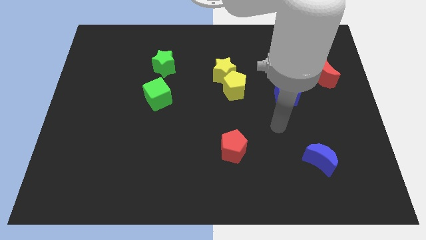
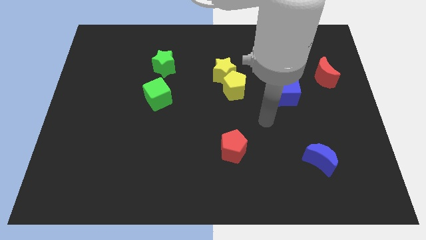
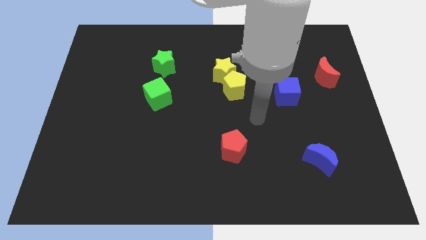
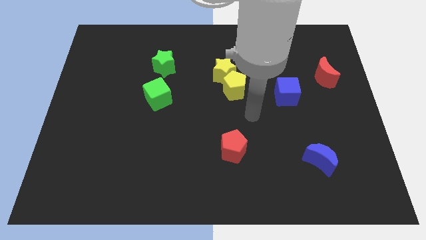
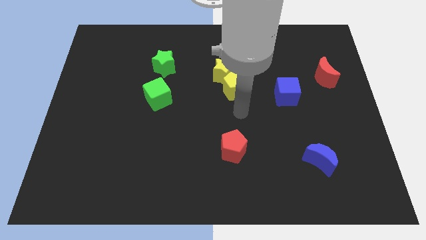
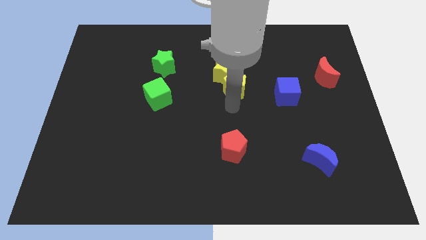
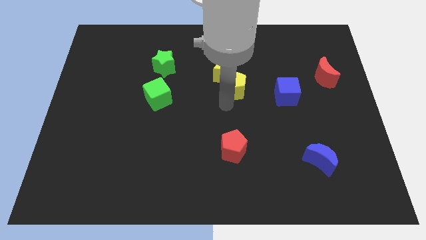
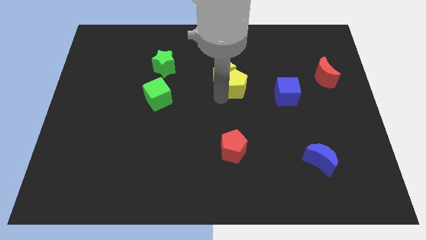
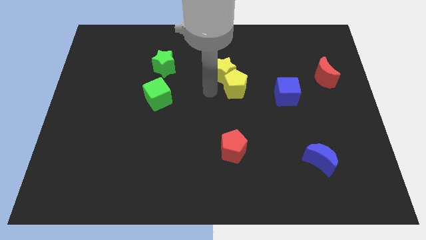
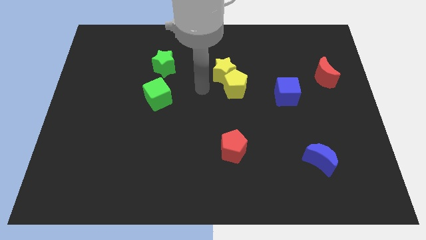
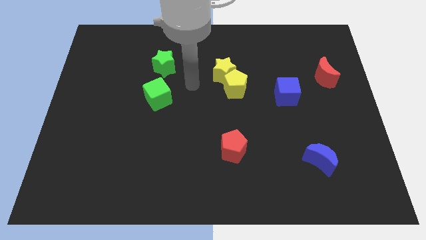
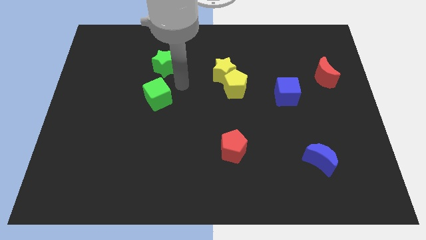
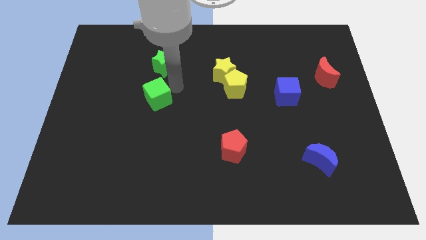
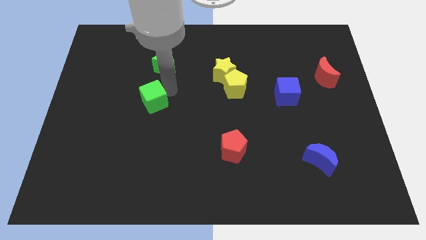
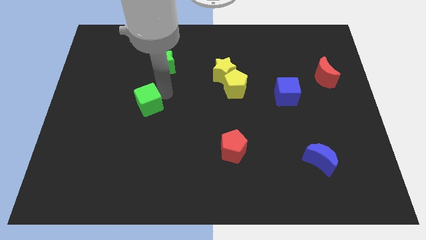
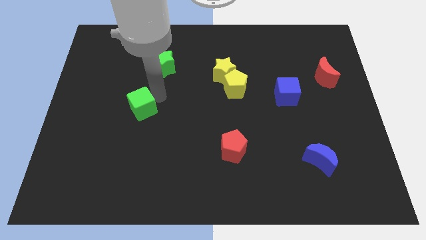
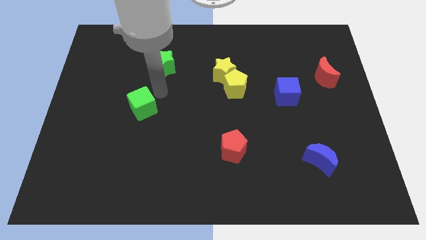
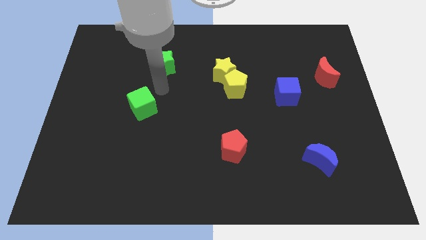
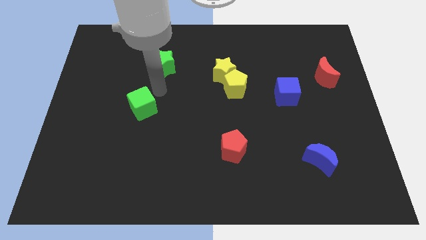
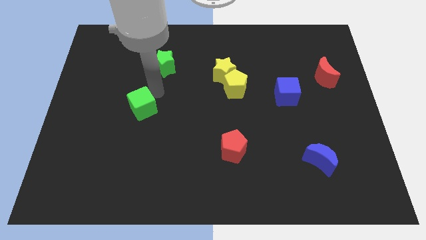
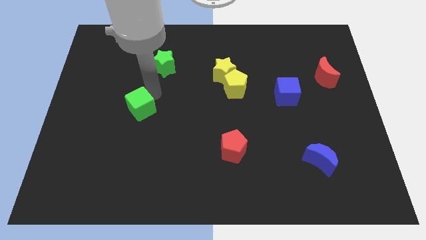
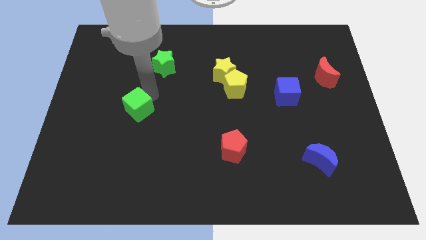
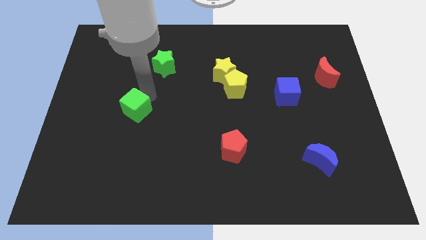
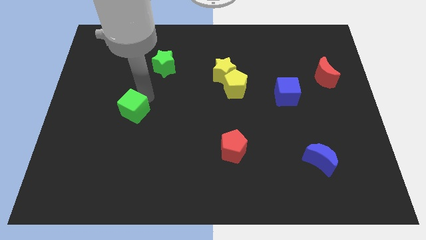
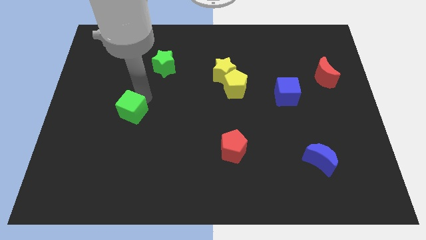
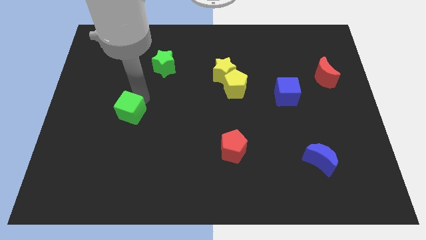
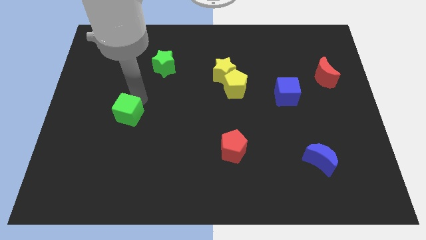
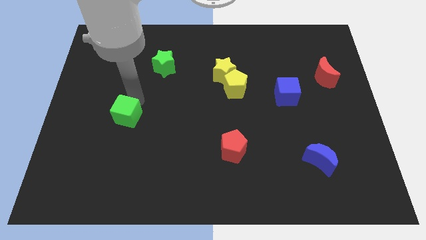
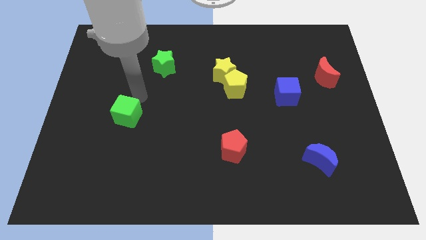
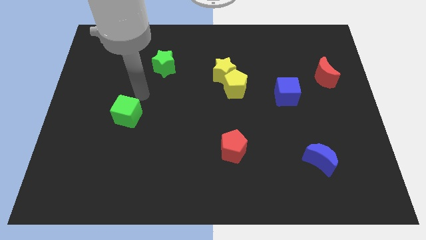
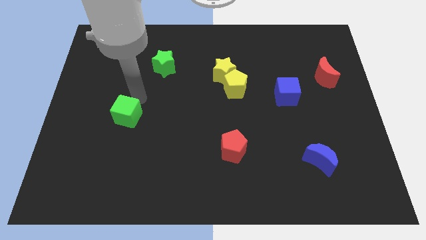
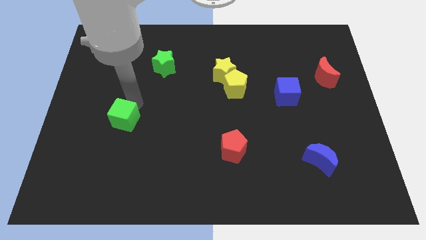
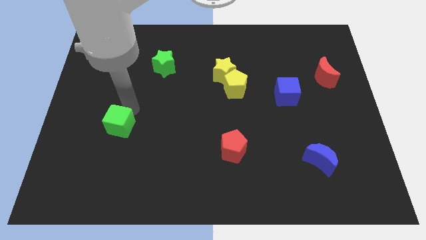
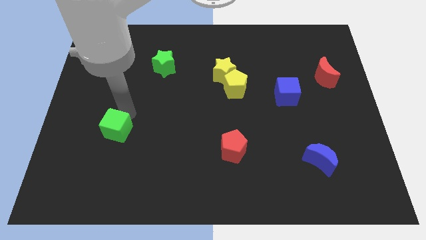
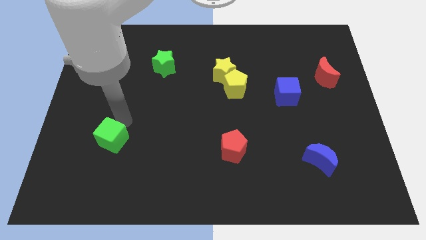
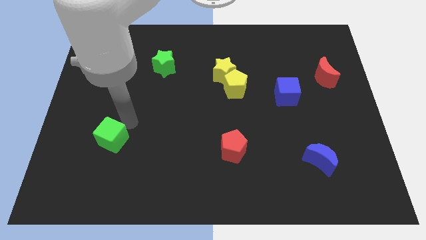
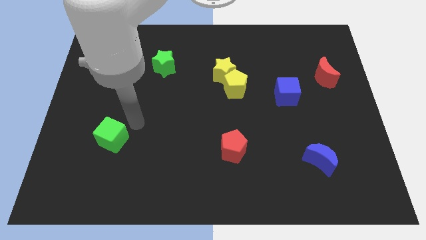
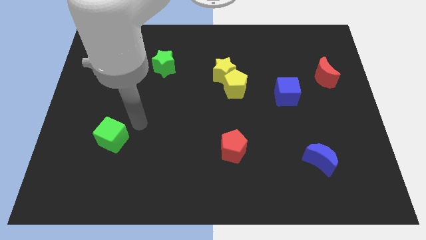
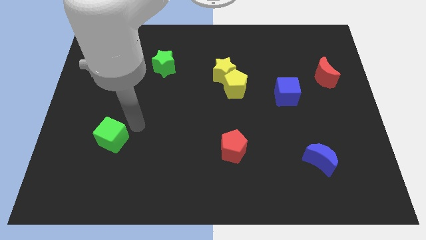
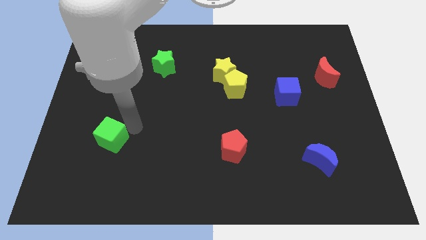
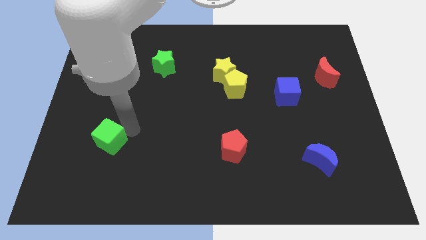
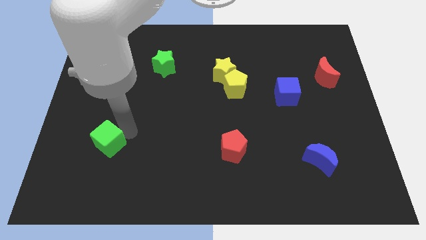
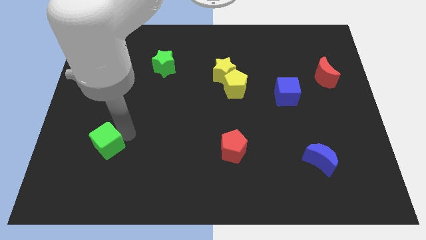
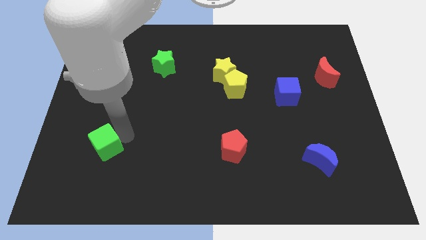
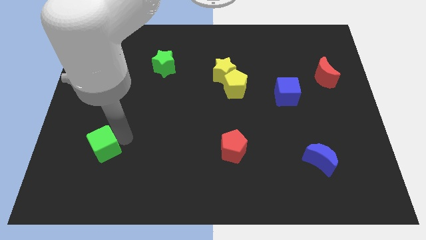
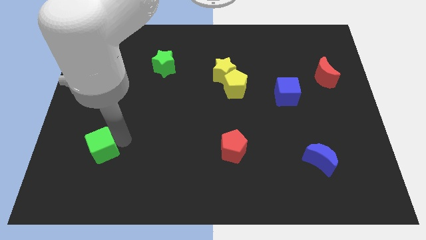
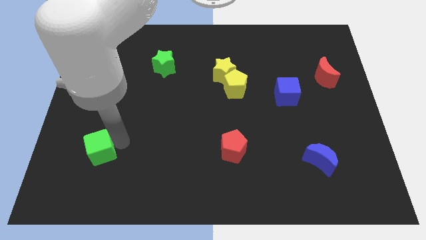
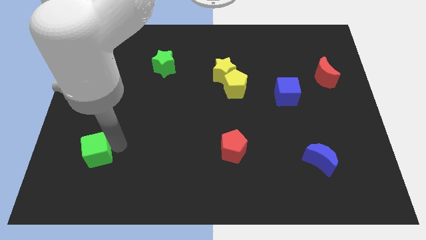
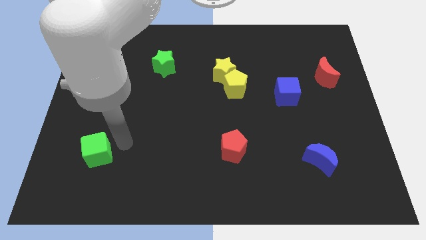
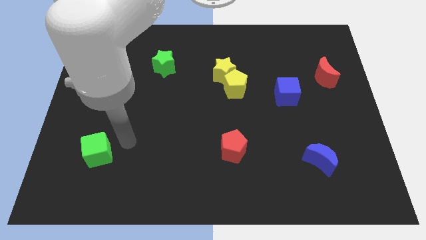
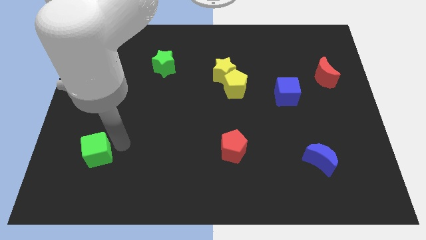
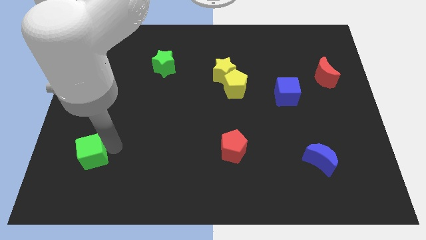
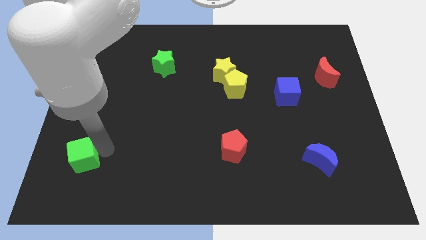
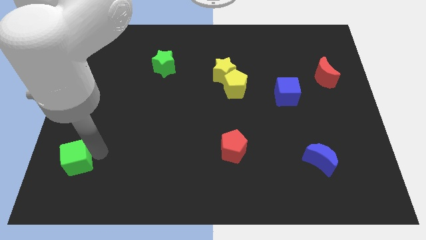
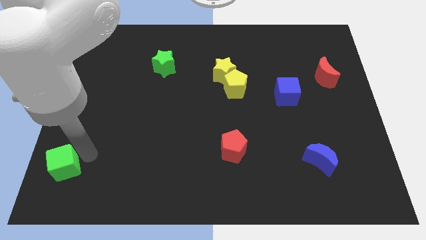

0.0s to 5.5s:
push the green cube to the lower left corner

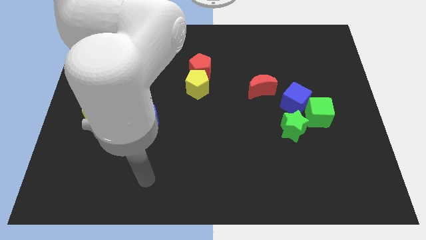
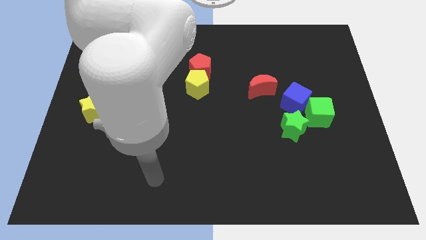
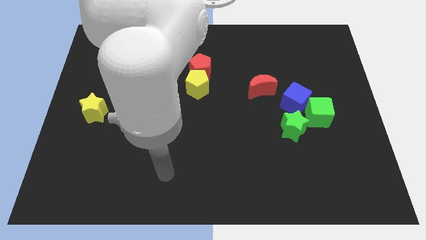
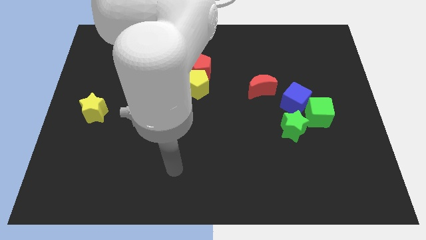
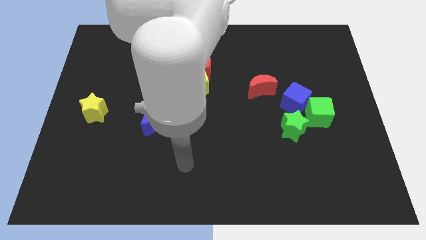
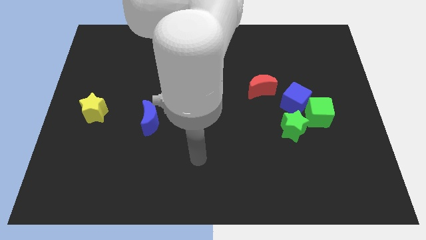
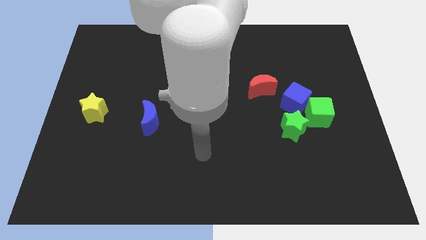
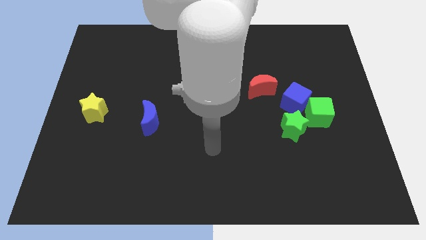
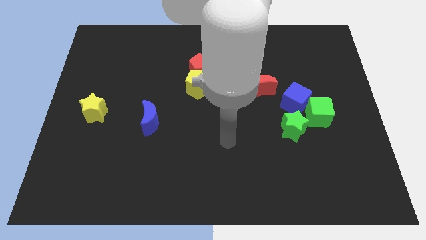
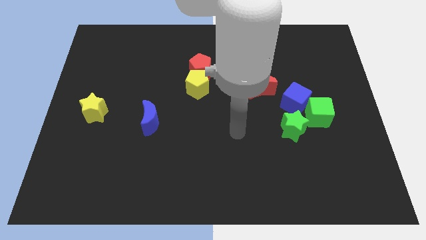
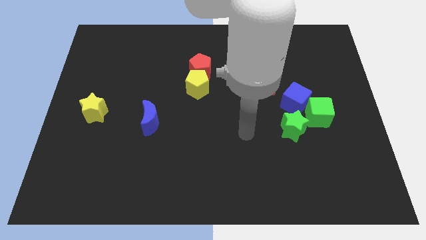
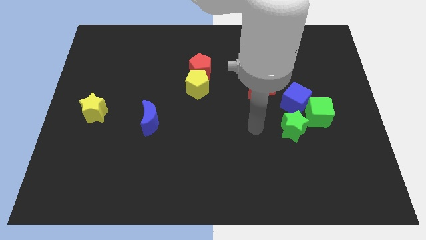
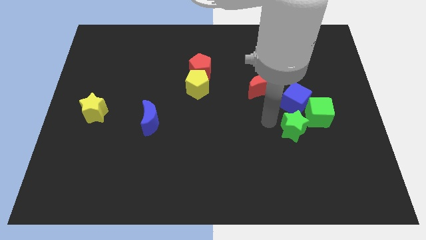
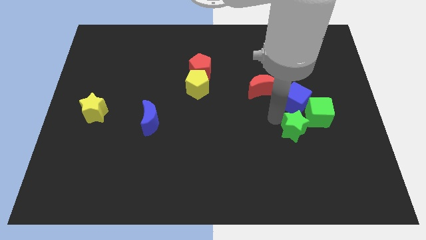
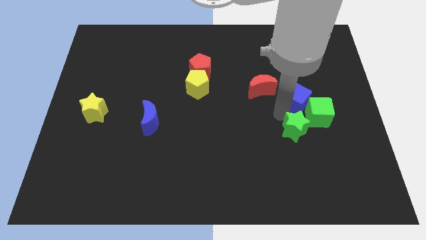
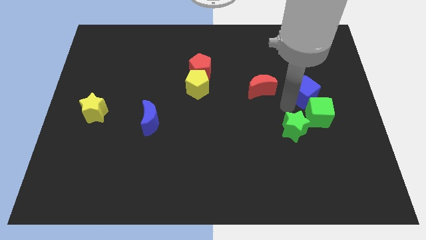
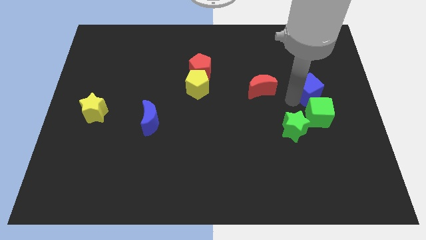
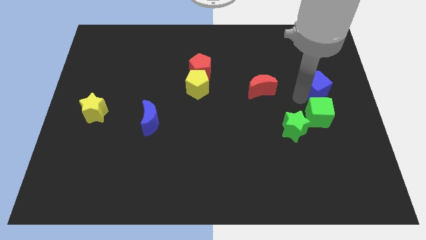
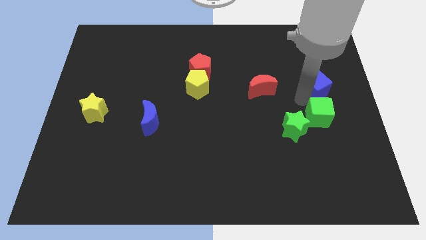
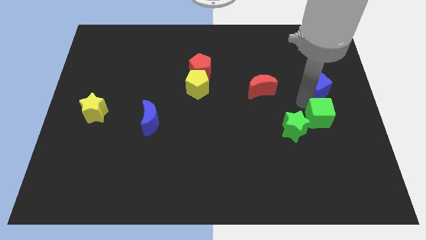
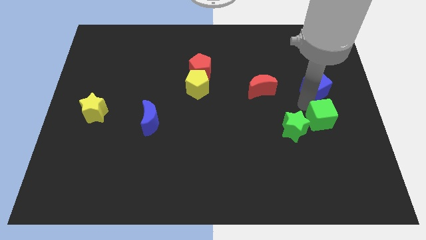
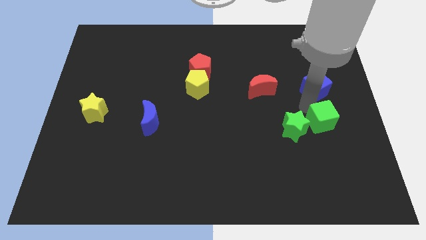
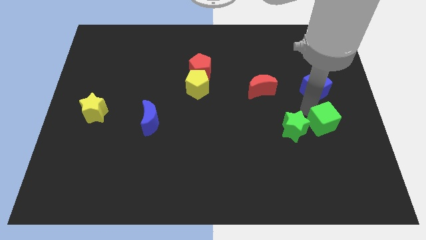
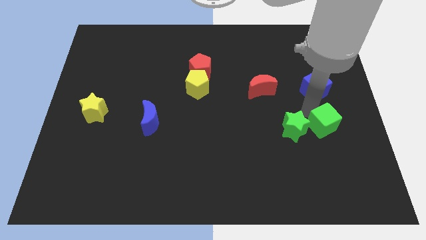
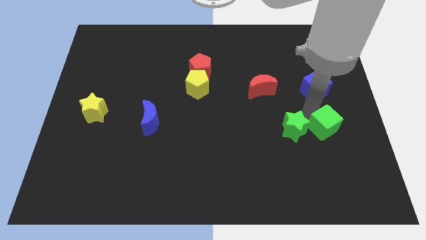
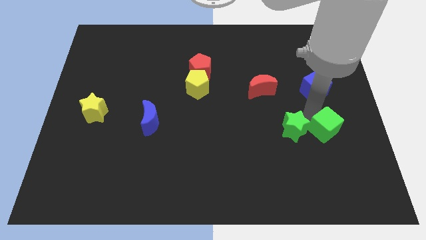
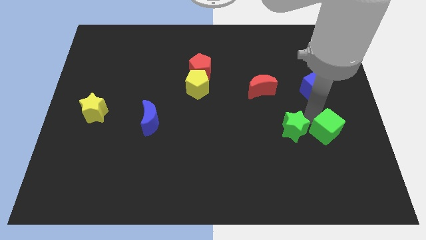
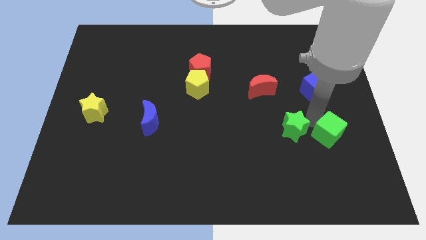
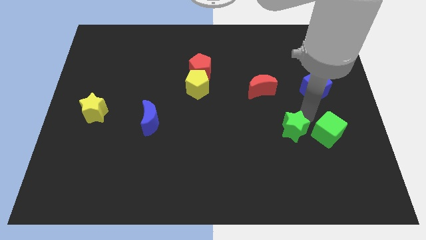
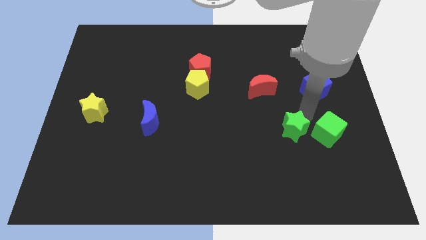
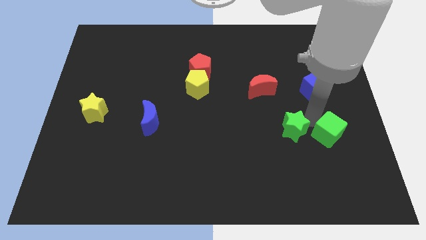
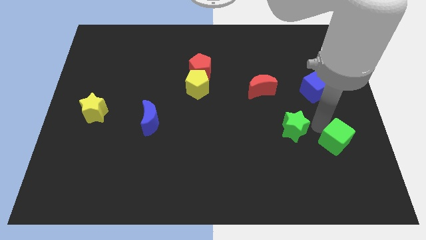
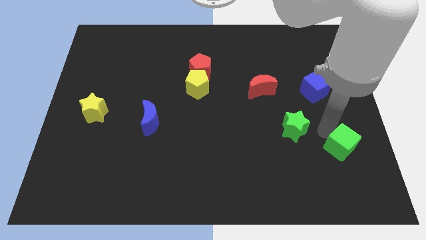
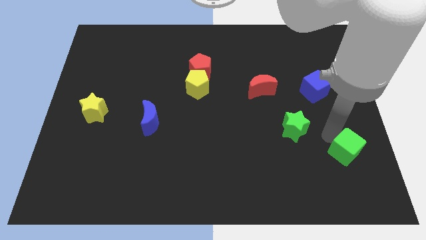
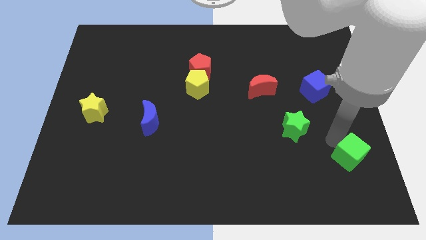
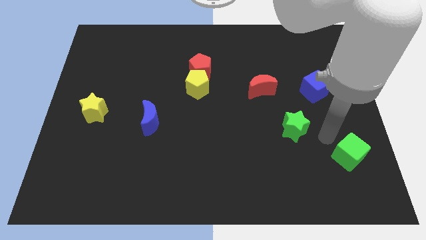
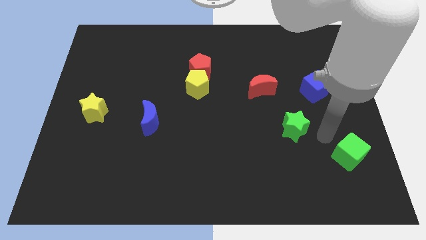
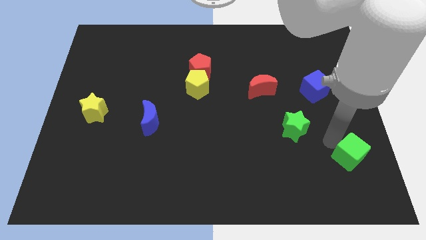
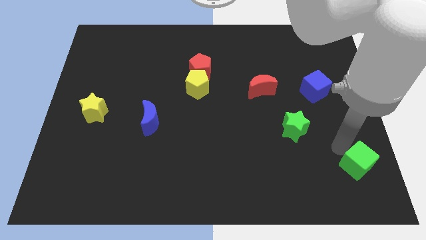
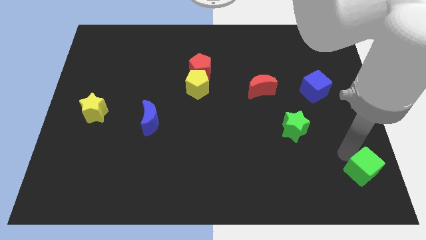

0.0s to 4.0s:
push the green cube to the bottom right
